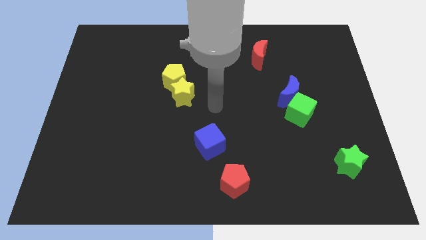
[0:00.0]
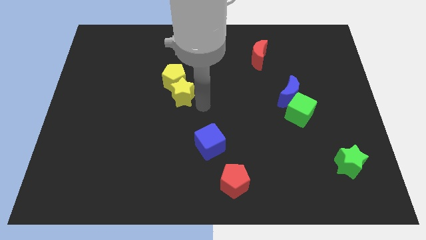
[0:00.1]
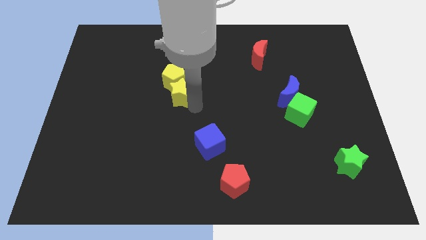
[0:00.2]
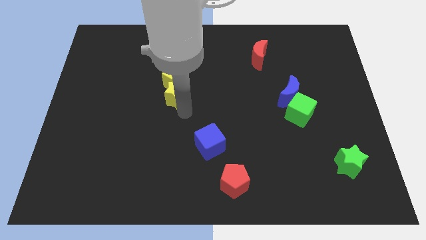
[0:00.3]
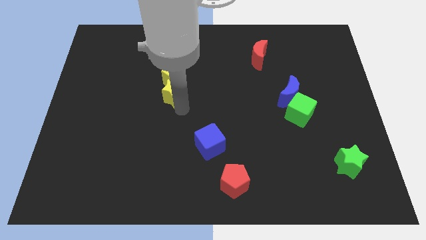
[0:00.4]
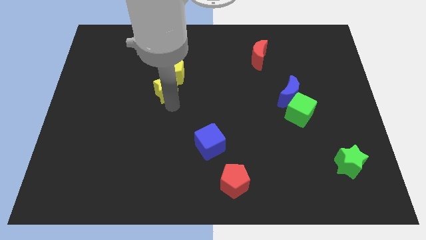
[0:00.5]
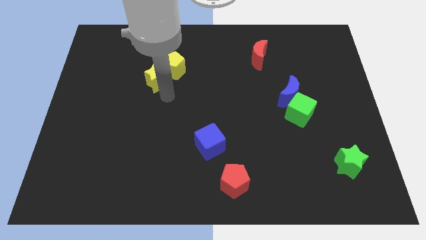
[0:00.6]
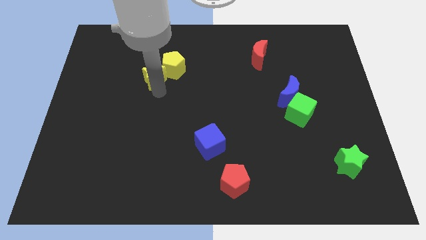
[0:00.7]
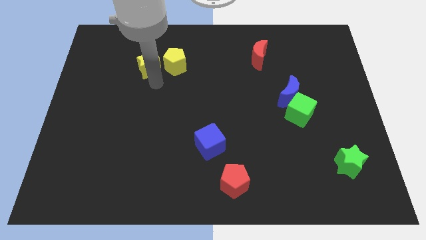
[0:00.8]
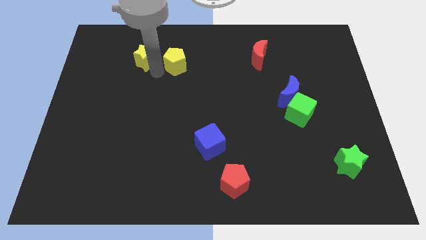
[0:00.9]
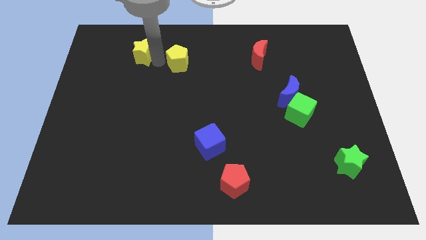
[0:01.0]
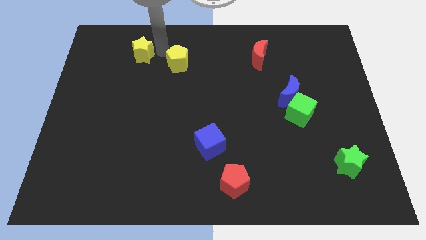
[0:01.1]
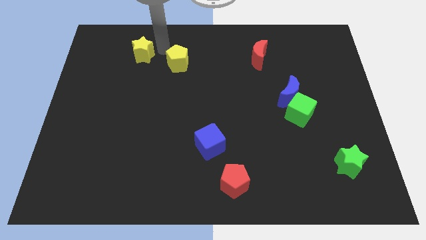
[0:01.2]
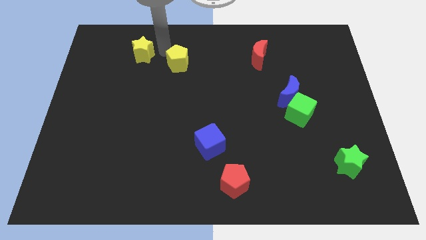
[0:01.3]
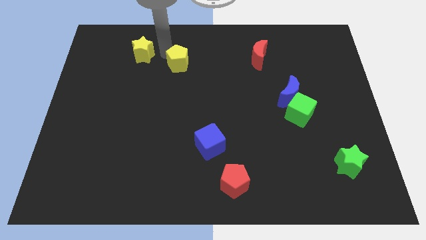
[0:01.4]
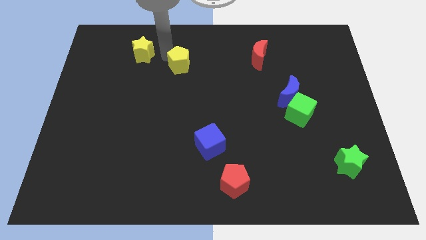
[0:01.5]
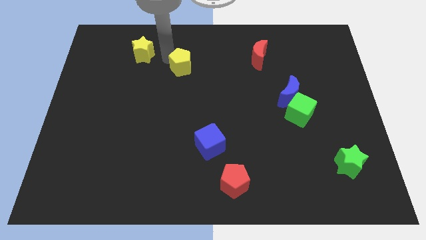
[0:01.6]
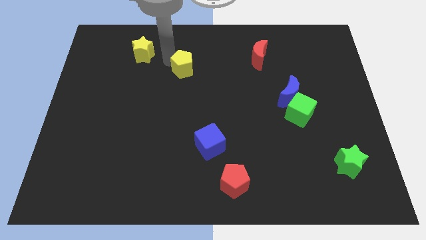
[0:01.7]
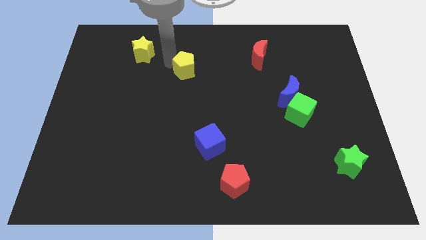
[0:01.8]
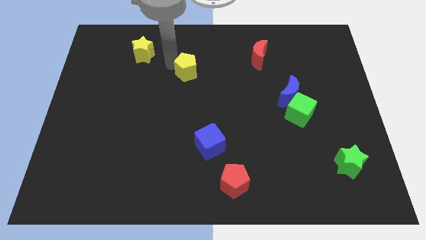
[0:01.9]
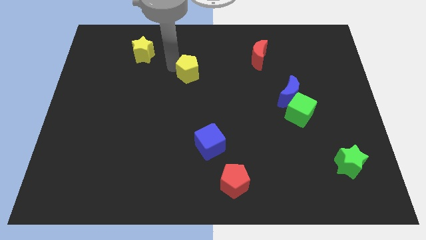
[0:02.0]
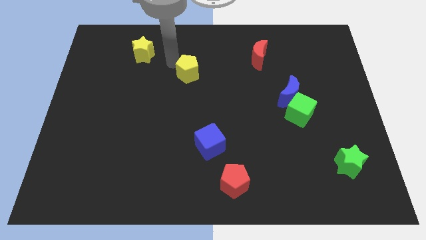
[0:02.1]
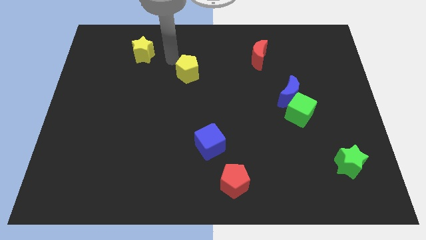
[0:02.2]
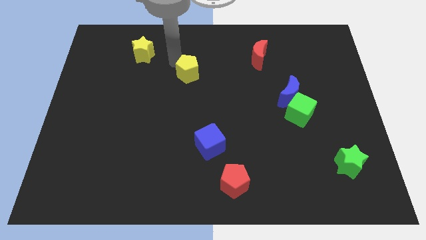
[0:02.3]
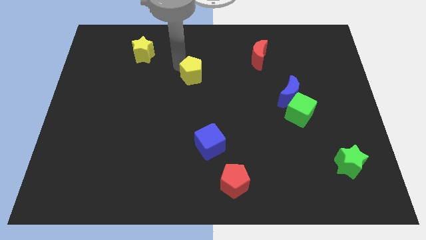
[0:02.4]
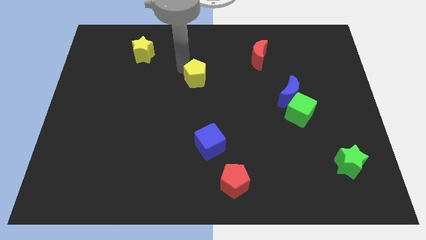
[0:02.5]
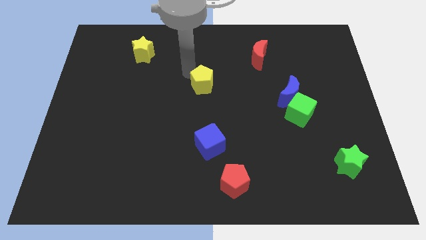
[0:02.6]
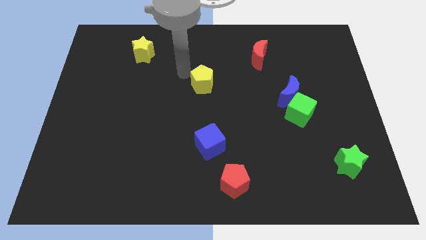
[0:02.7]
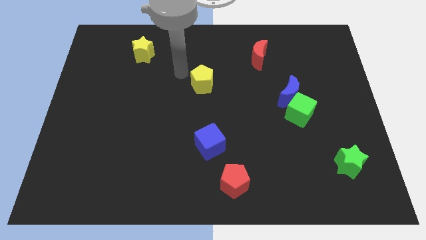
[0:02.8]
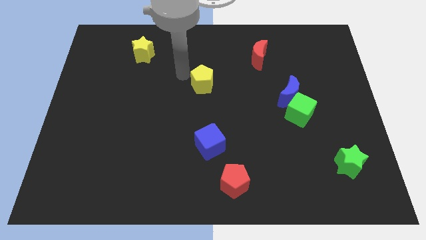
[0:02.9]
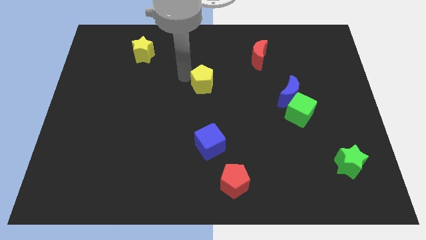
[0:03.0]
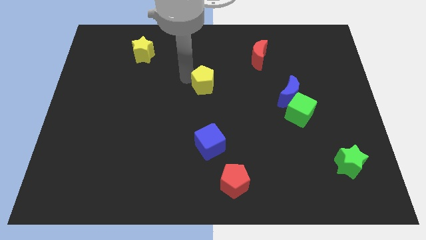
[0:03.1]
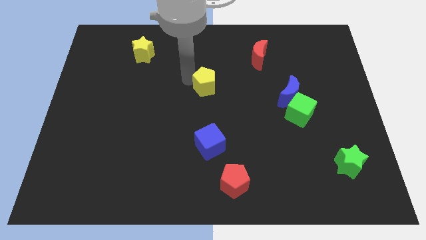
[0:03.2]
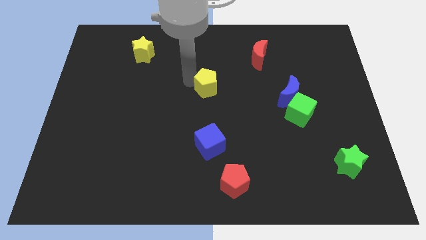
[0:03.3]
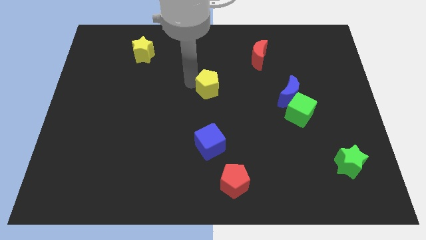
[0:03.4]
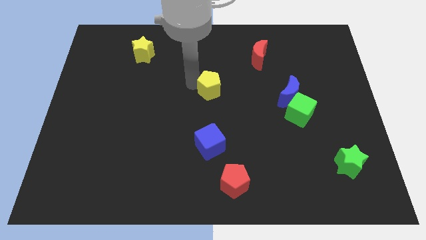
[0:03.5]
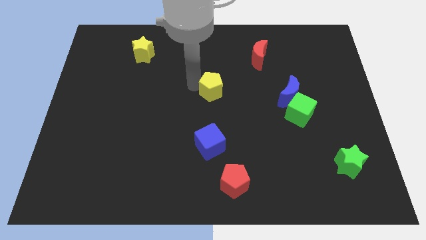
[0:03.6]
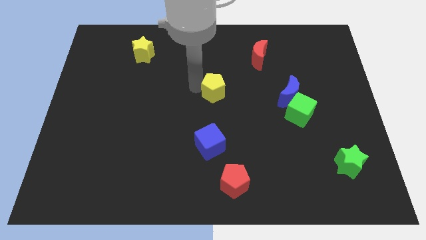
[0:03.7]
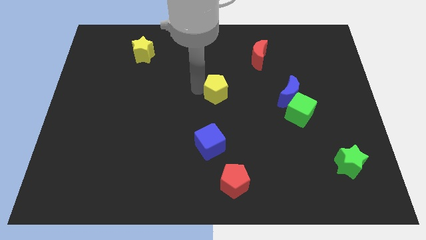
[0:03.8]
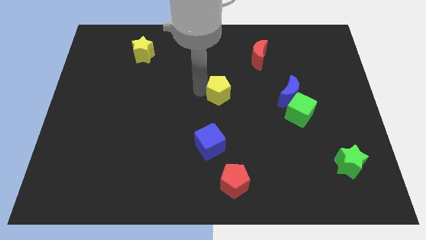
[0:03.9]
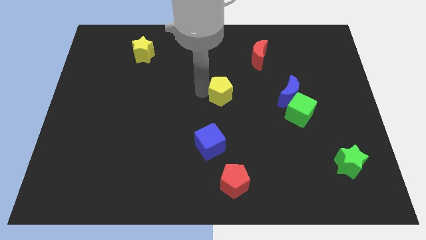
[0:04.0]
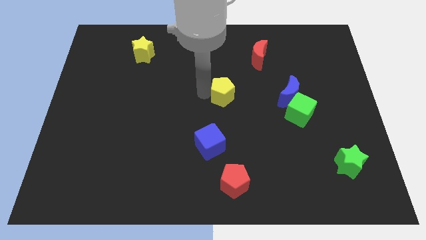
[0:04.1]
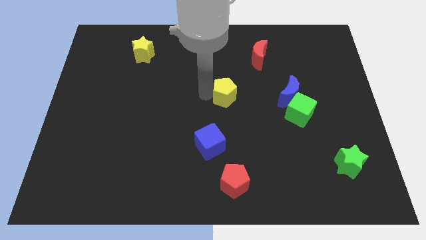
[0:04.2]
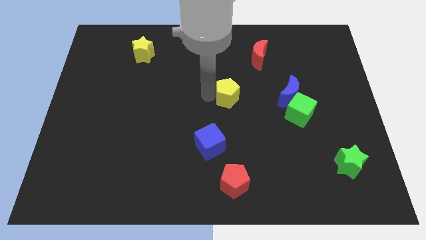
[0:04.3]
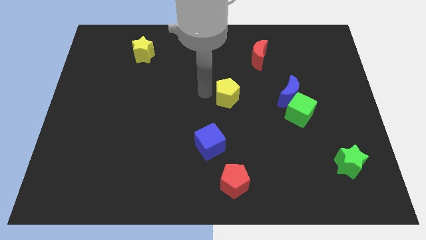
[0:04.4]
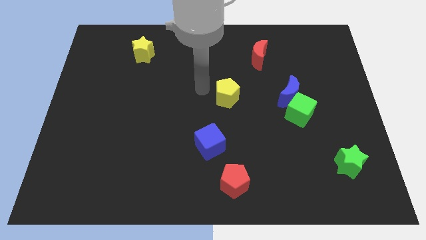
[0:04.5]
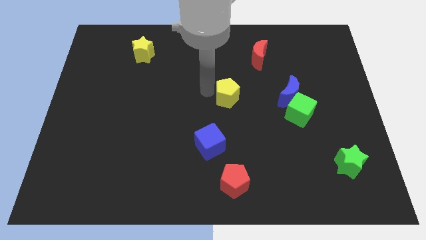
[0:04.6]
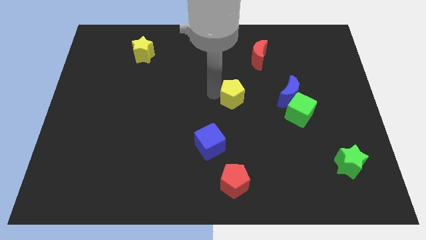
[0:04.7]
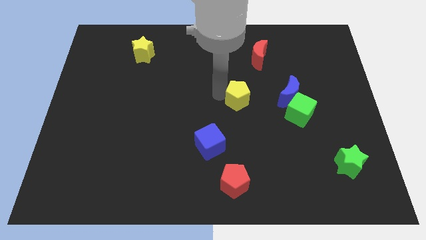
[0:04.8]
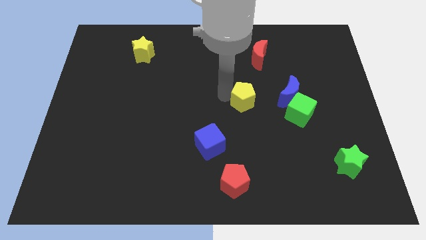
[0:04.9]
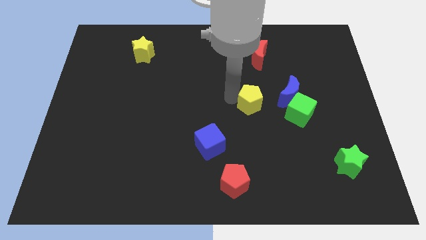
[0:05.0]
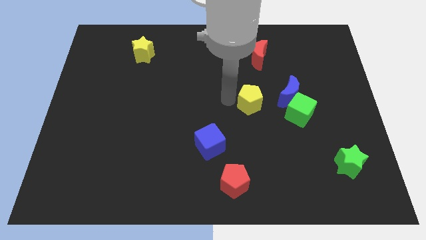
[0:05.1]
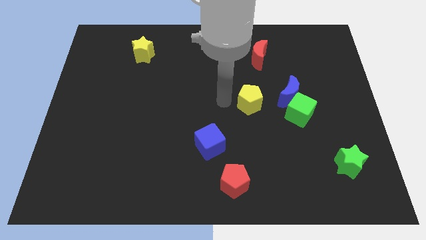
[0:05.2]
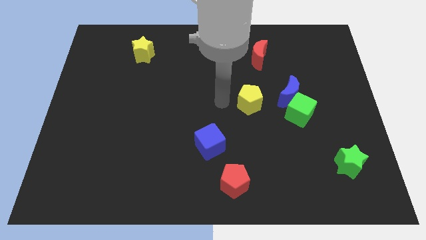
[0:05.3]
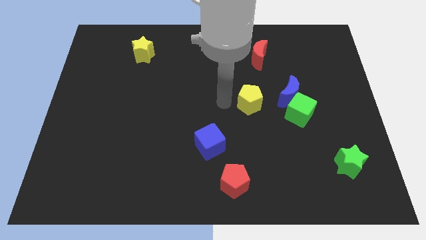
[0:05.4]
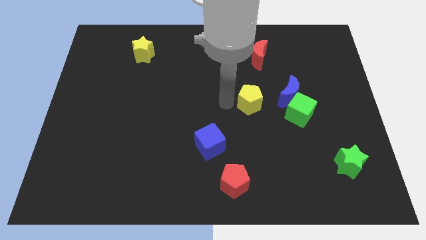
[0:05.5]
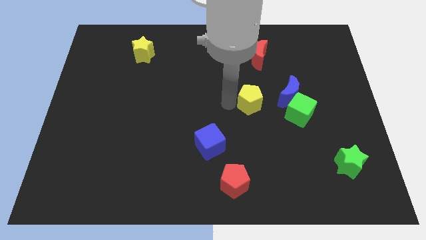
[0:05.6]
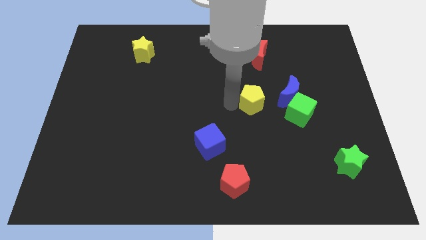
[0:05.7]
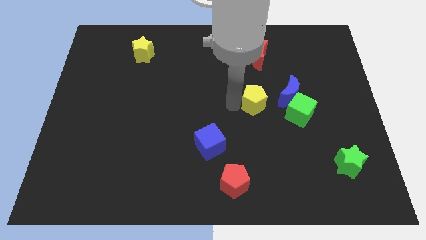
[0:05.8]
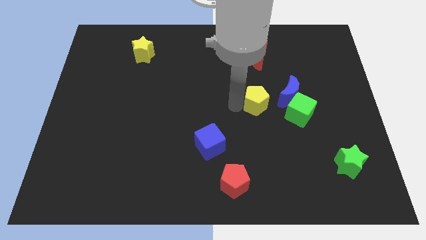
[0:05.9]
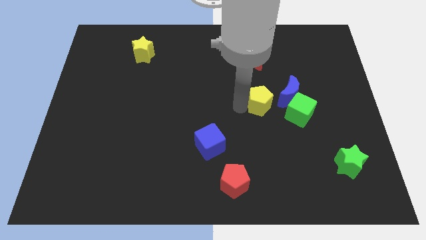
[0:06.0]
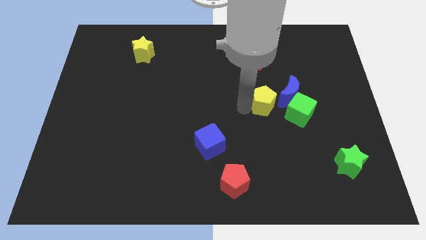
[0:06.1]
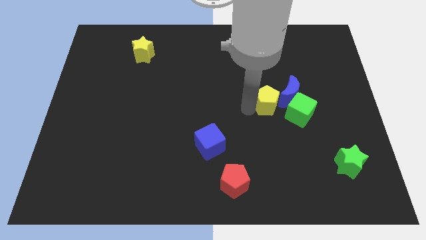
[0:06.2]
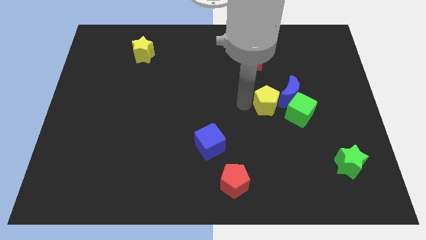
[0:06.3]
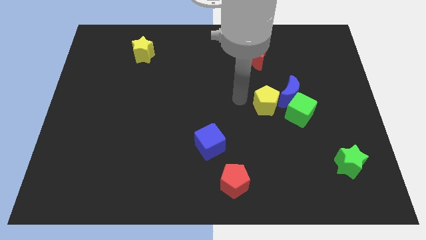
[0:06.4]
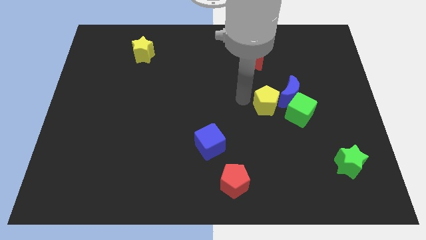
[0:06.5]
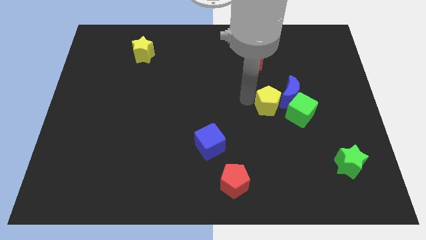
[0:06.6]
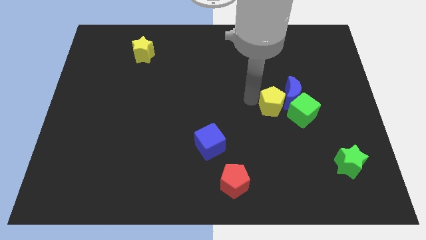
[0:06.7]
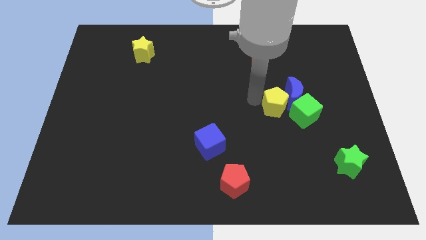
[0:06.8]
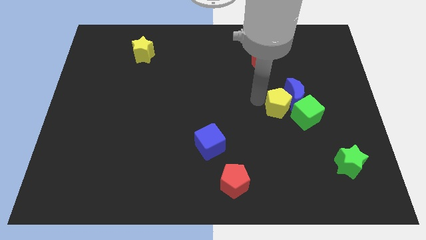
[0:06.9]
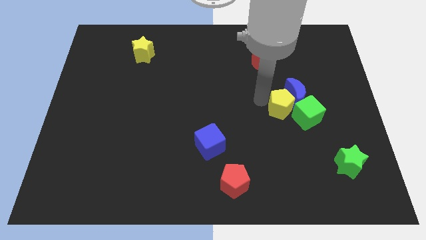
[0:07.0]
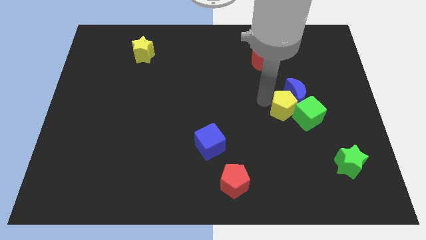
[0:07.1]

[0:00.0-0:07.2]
slide the yellow pentagon close to the green cube
